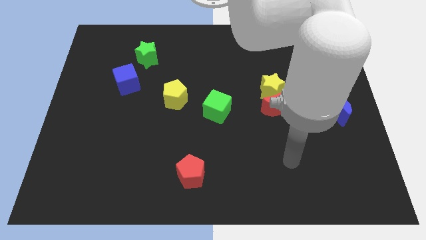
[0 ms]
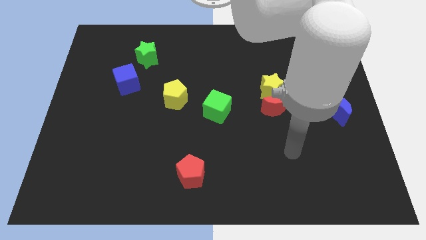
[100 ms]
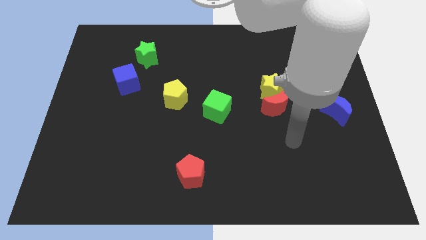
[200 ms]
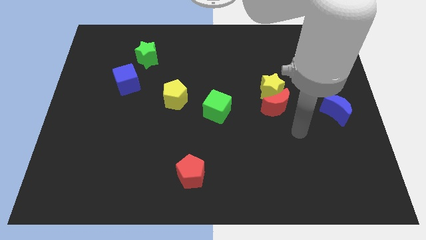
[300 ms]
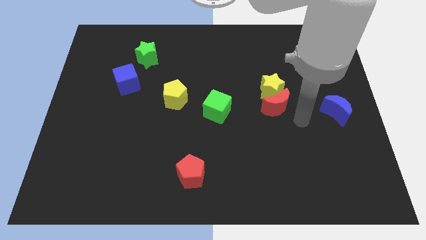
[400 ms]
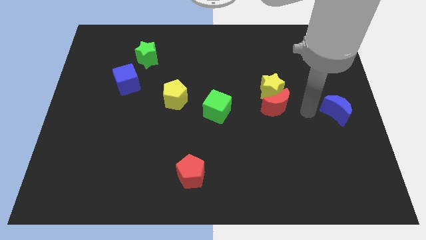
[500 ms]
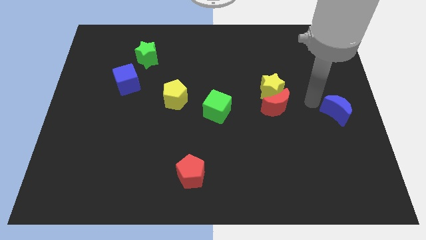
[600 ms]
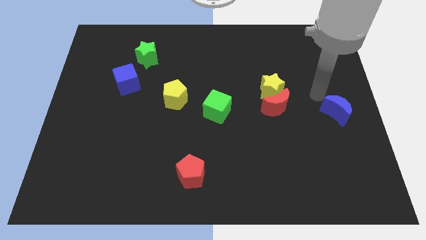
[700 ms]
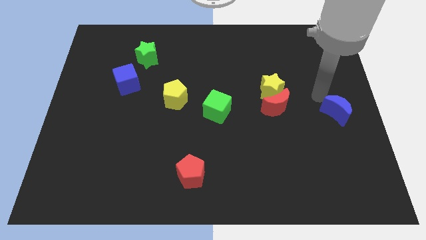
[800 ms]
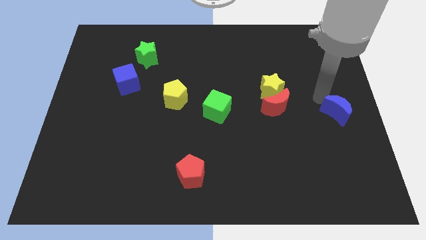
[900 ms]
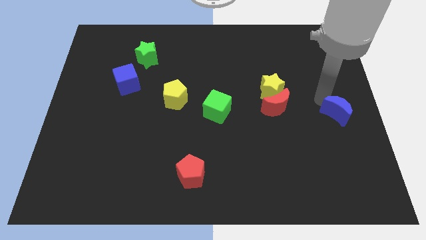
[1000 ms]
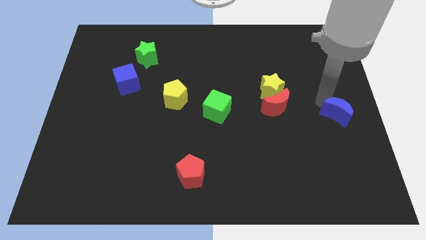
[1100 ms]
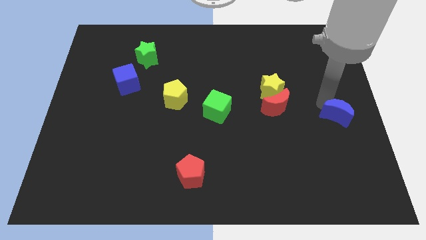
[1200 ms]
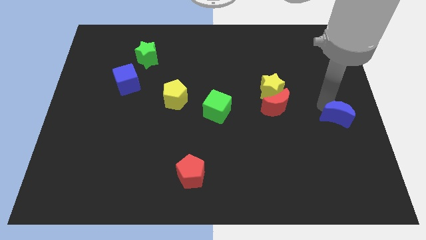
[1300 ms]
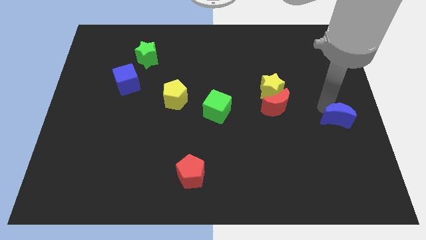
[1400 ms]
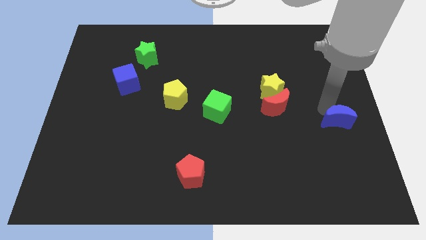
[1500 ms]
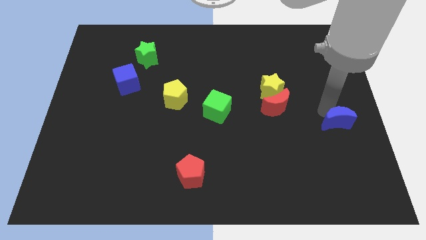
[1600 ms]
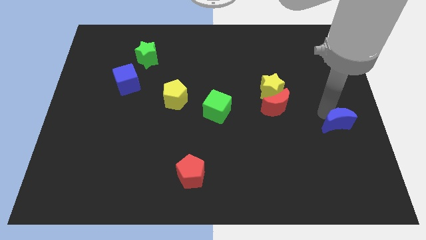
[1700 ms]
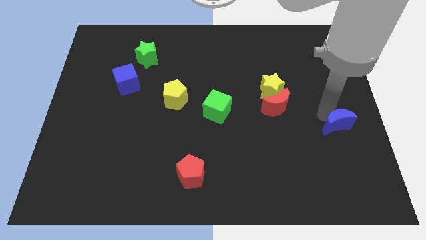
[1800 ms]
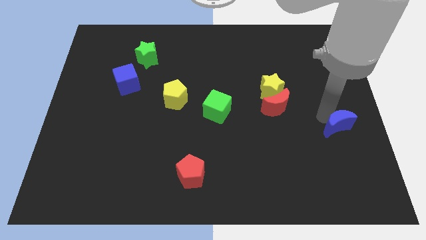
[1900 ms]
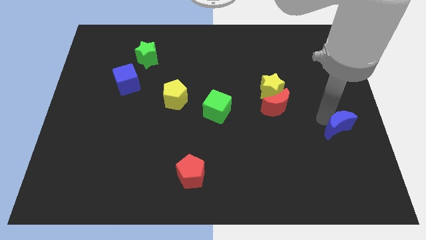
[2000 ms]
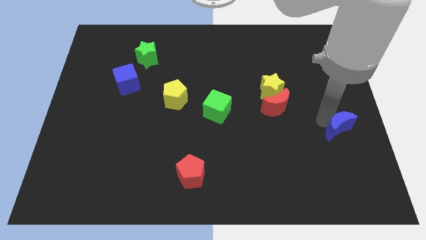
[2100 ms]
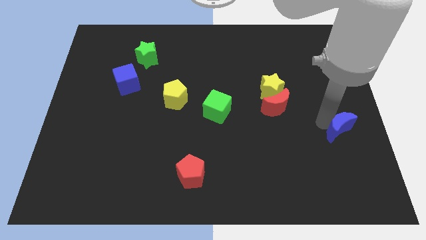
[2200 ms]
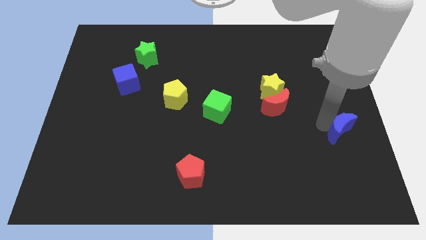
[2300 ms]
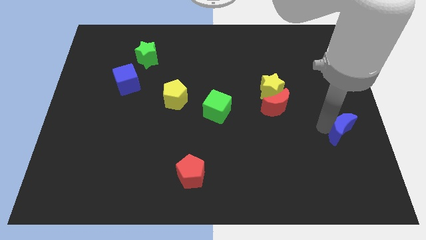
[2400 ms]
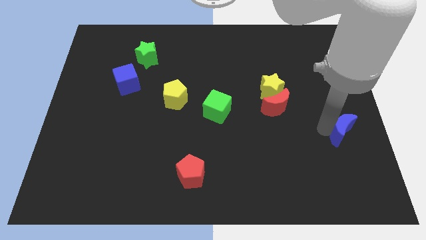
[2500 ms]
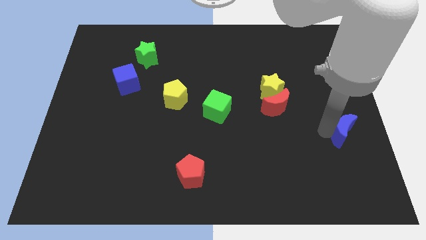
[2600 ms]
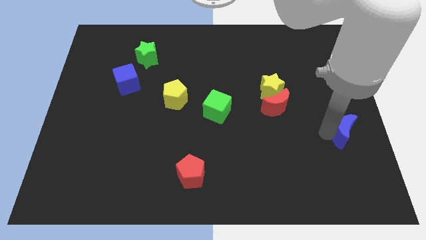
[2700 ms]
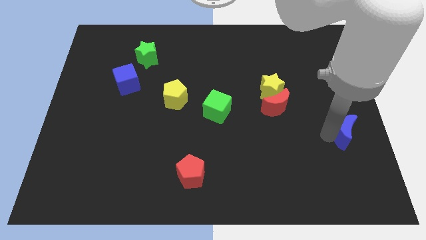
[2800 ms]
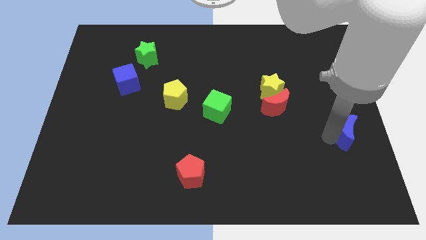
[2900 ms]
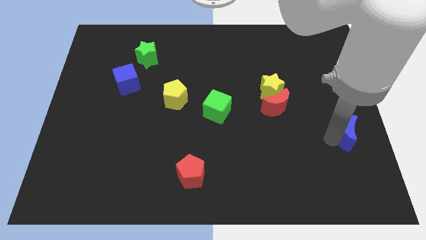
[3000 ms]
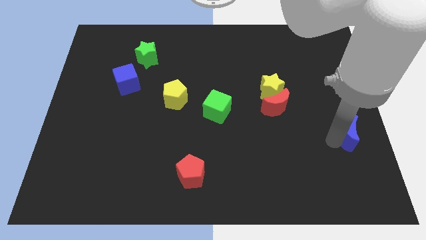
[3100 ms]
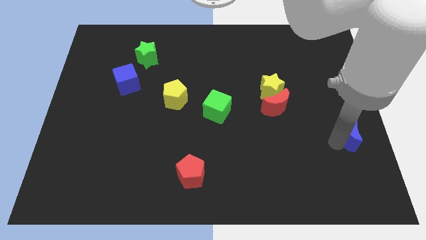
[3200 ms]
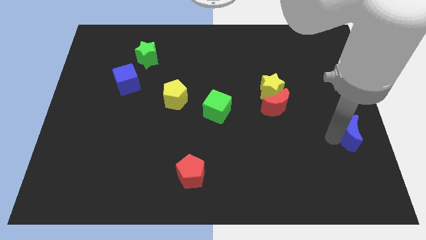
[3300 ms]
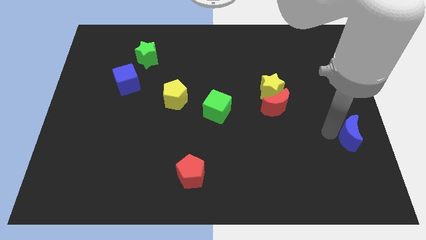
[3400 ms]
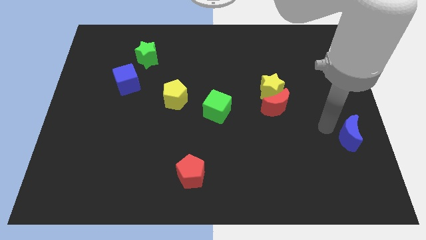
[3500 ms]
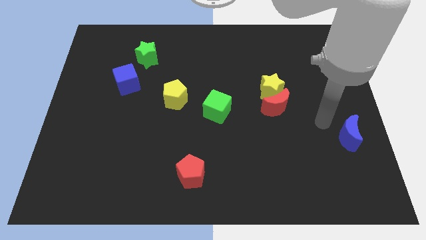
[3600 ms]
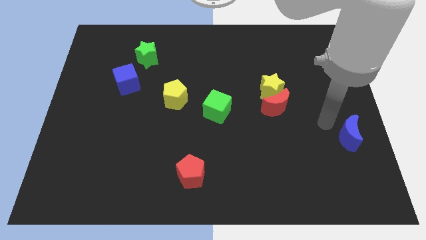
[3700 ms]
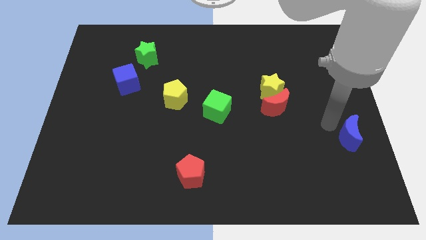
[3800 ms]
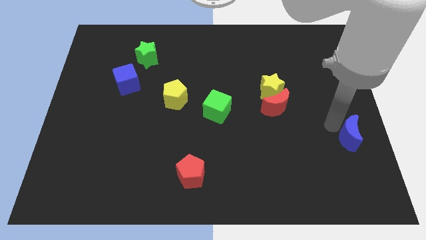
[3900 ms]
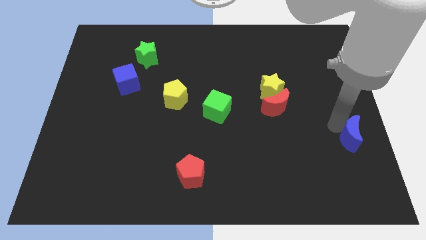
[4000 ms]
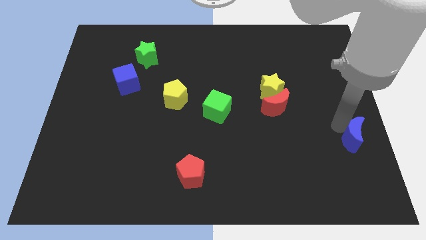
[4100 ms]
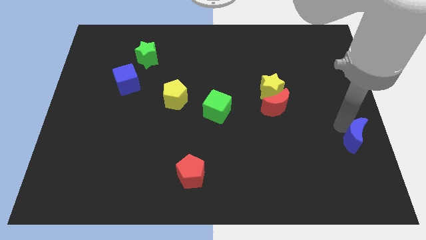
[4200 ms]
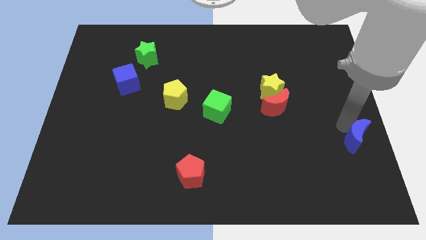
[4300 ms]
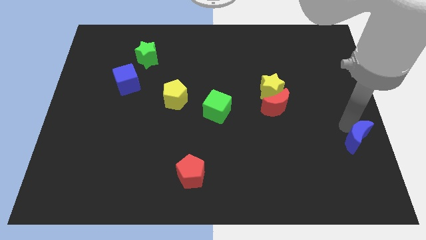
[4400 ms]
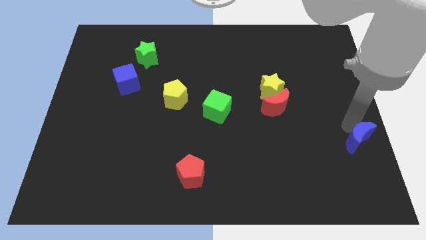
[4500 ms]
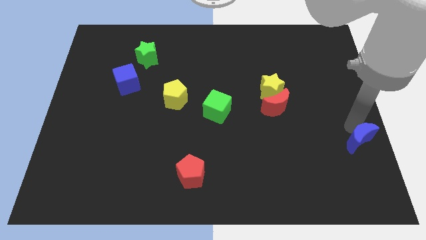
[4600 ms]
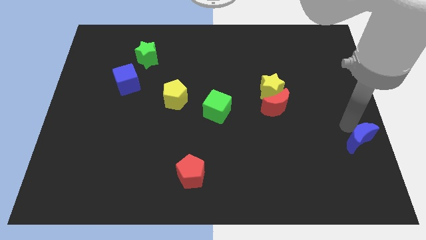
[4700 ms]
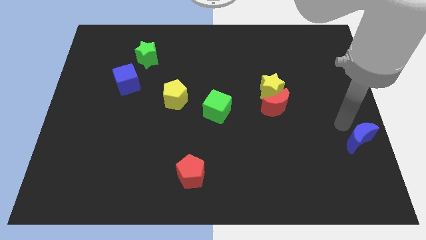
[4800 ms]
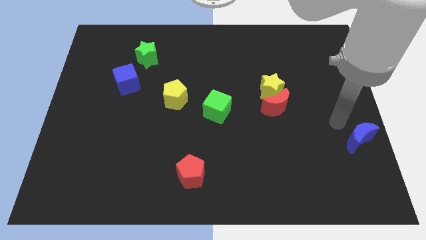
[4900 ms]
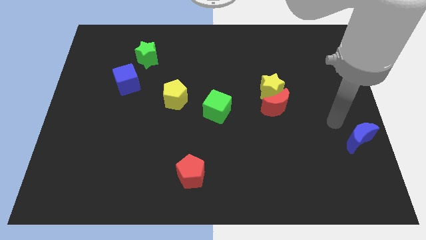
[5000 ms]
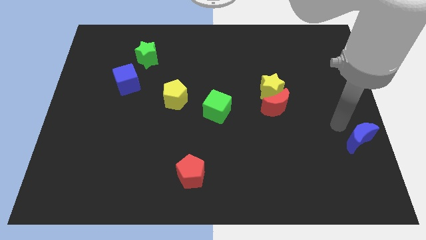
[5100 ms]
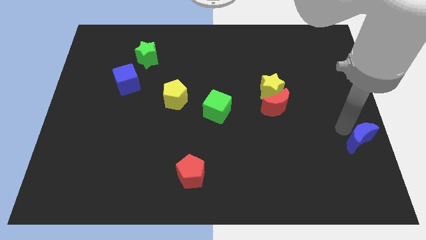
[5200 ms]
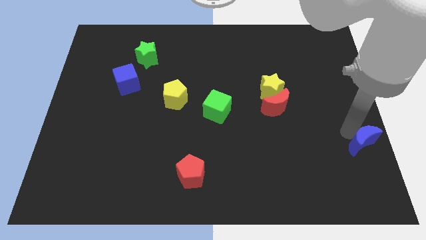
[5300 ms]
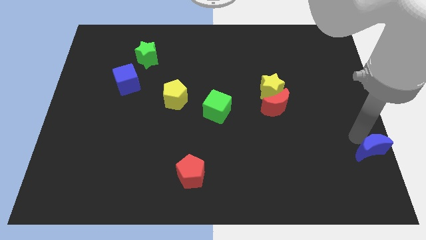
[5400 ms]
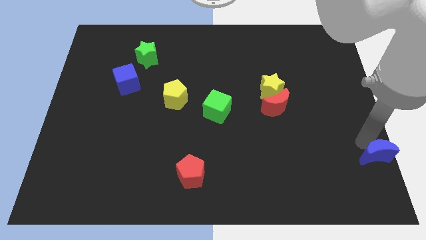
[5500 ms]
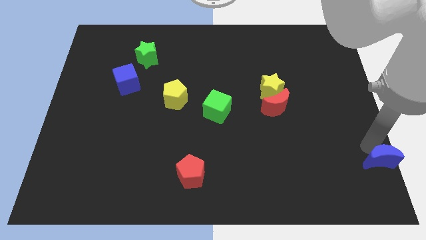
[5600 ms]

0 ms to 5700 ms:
push the blue moon to the bottom right corner

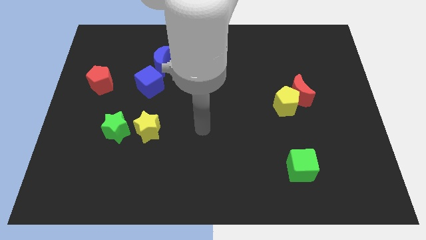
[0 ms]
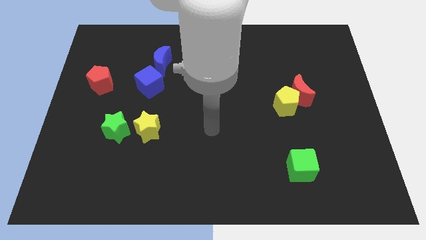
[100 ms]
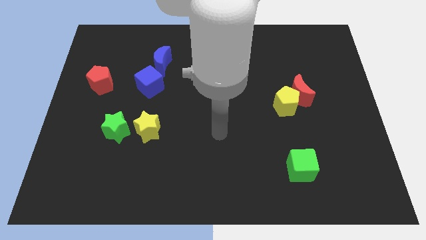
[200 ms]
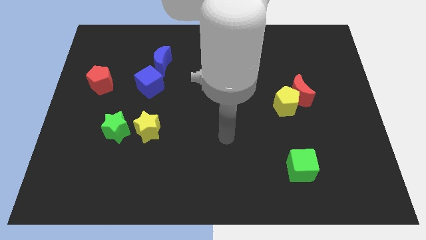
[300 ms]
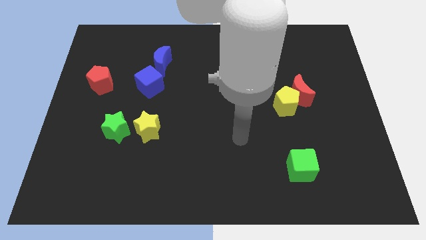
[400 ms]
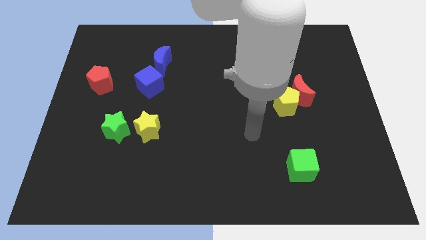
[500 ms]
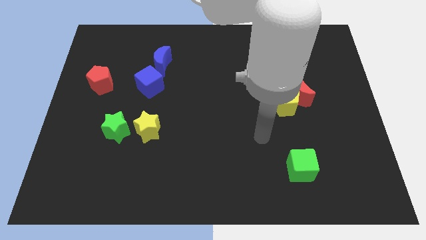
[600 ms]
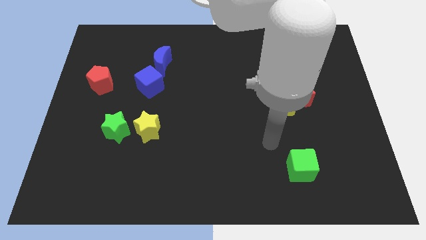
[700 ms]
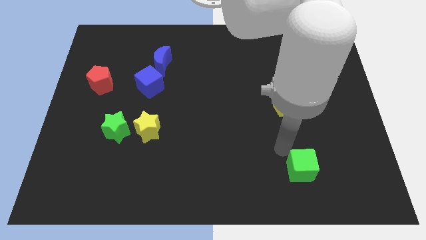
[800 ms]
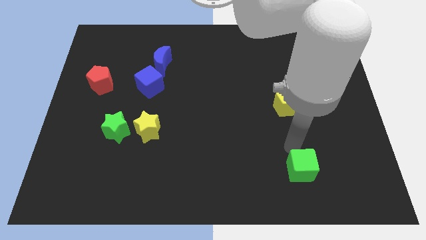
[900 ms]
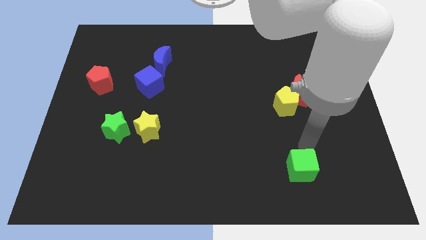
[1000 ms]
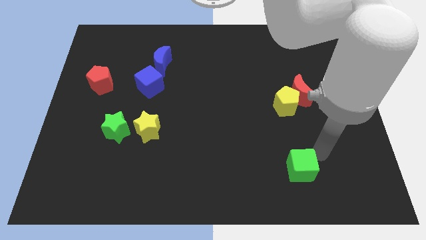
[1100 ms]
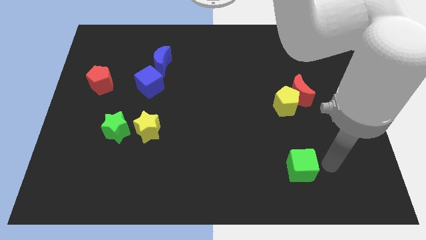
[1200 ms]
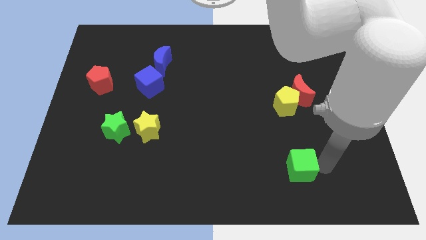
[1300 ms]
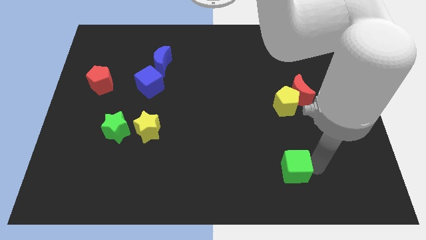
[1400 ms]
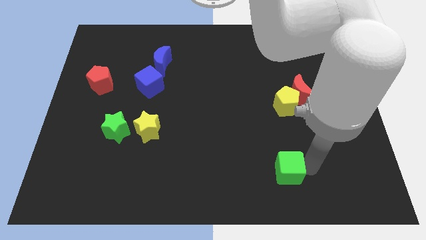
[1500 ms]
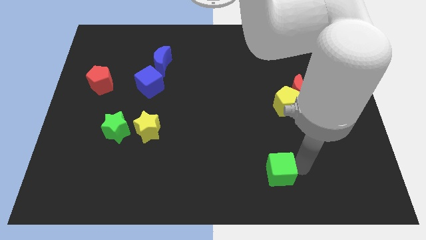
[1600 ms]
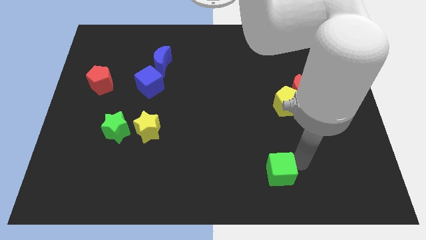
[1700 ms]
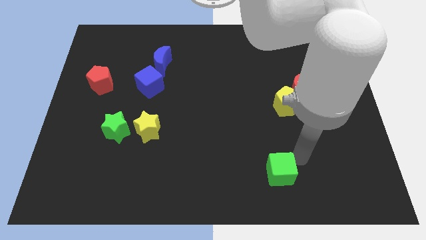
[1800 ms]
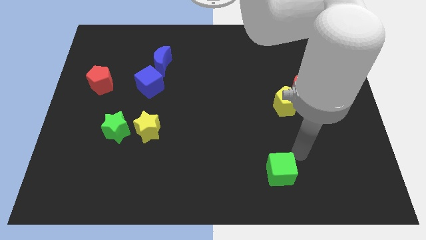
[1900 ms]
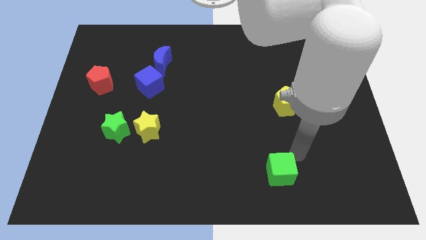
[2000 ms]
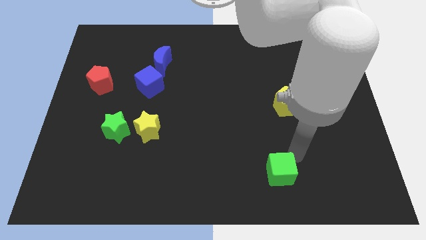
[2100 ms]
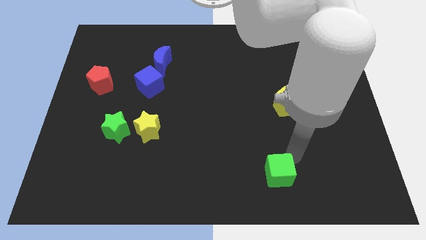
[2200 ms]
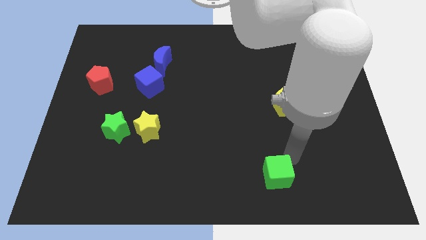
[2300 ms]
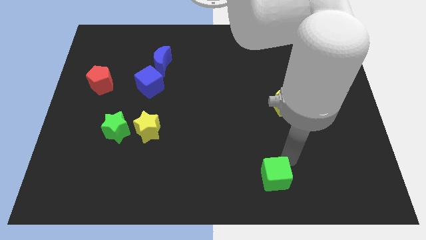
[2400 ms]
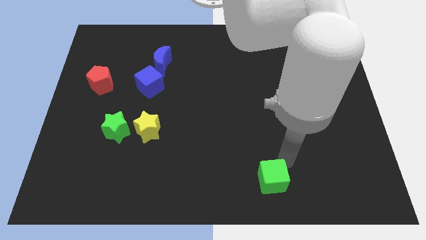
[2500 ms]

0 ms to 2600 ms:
push the green cube to the bottom side
